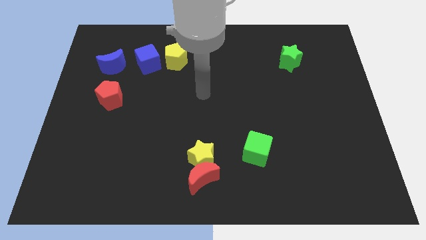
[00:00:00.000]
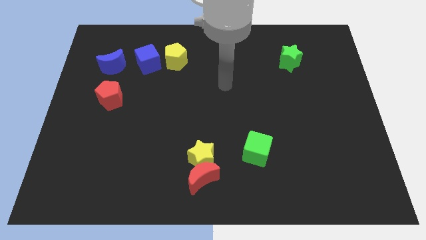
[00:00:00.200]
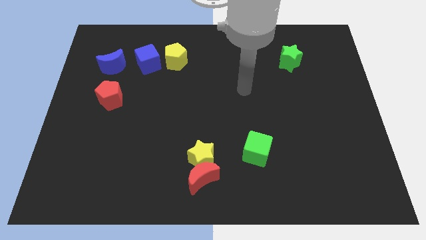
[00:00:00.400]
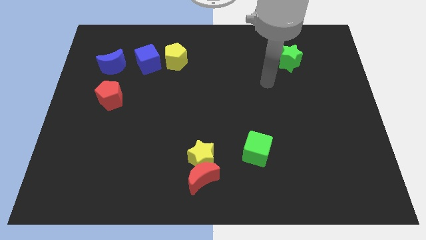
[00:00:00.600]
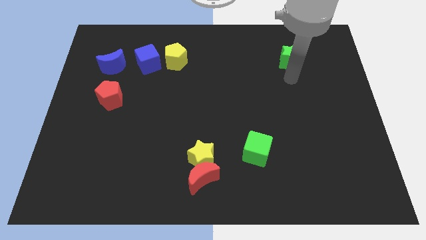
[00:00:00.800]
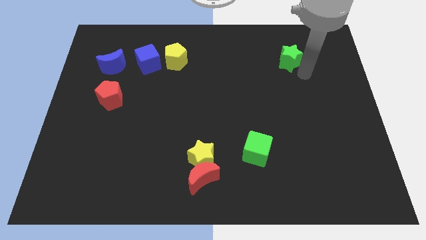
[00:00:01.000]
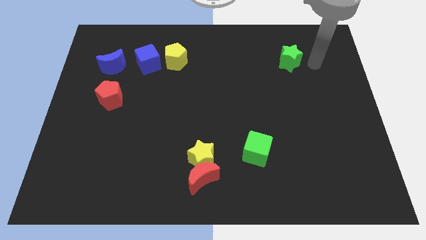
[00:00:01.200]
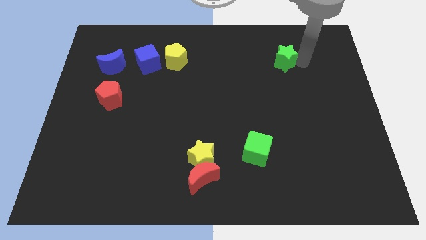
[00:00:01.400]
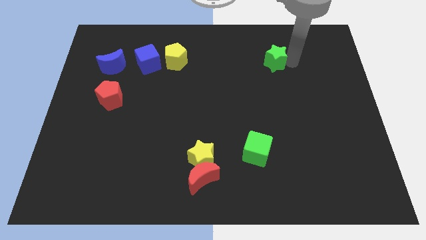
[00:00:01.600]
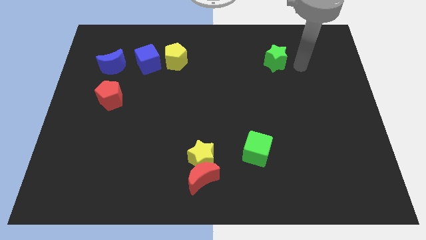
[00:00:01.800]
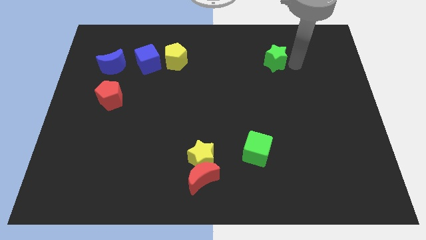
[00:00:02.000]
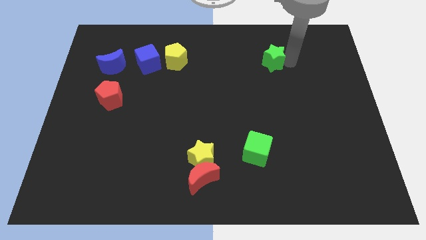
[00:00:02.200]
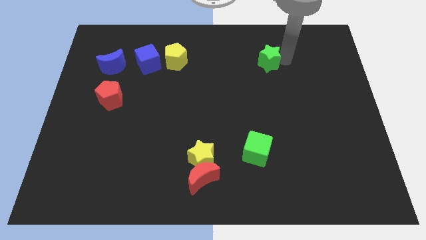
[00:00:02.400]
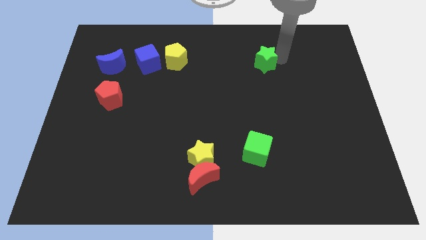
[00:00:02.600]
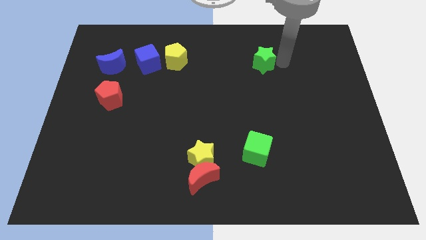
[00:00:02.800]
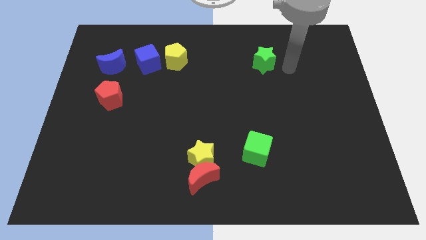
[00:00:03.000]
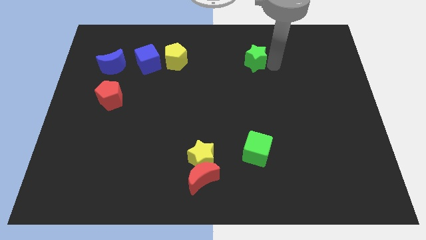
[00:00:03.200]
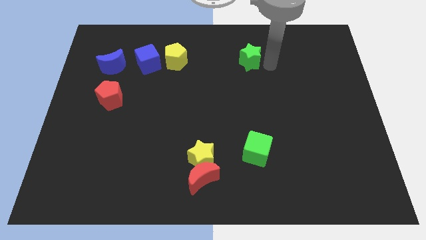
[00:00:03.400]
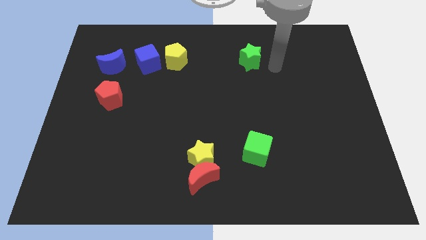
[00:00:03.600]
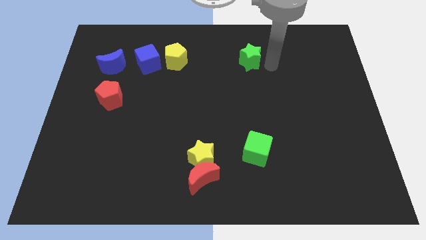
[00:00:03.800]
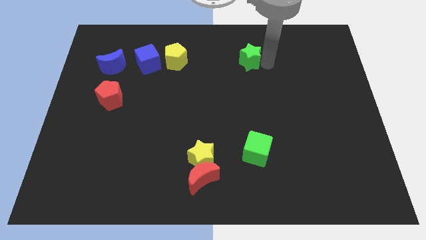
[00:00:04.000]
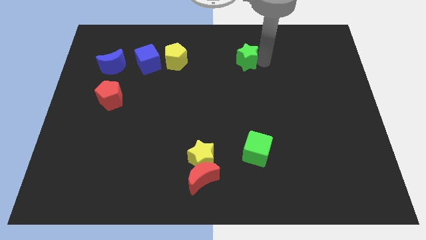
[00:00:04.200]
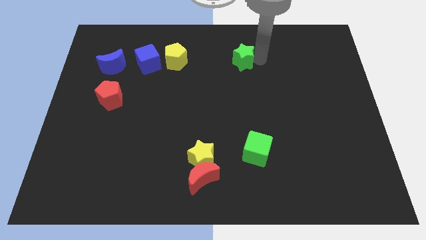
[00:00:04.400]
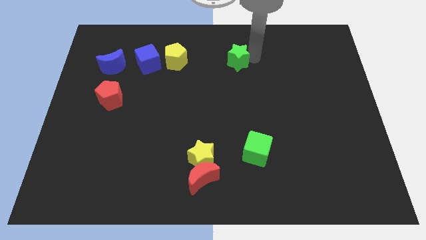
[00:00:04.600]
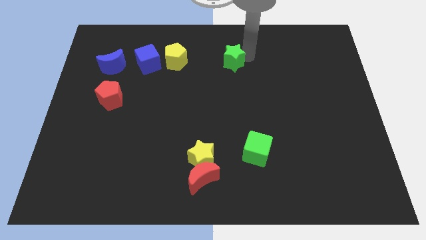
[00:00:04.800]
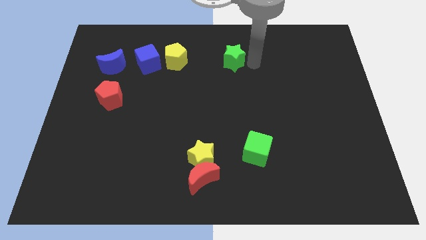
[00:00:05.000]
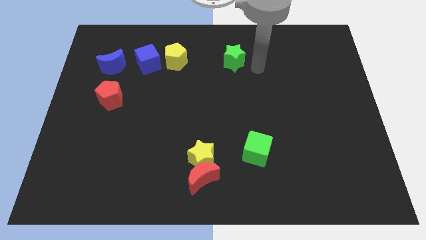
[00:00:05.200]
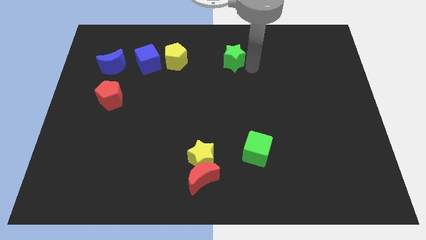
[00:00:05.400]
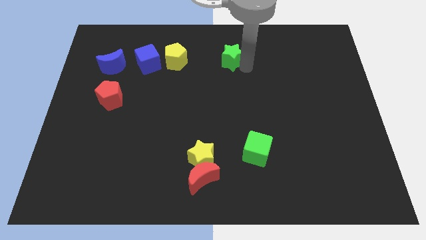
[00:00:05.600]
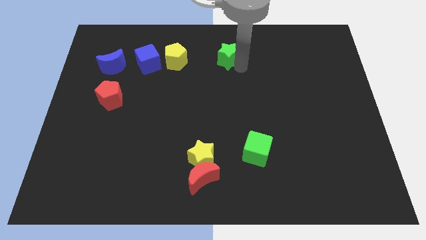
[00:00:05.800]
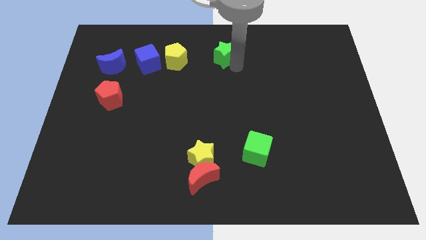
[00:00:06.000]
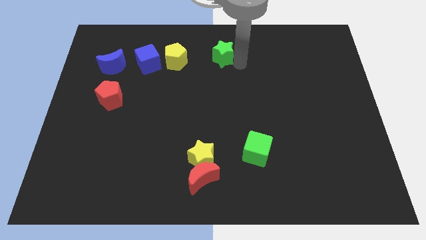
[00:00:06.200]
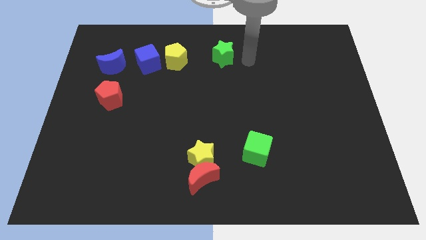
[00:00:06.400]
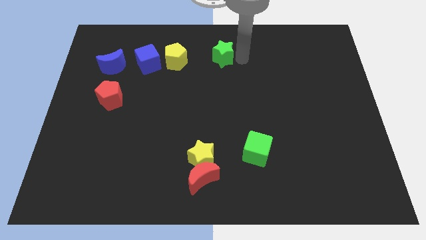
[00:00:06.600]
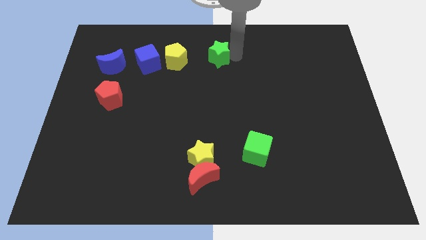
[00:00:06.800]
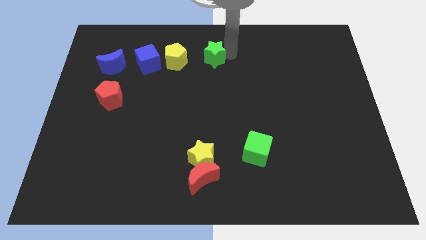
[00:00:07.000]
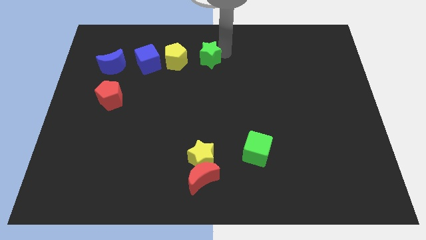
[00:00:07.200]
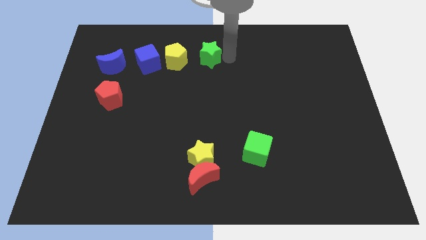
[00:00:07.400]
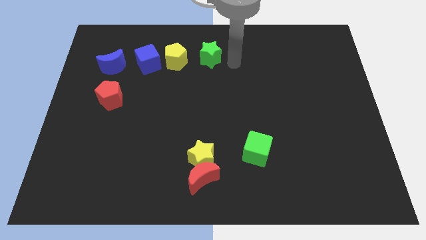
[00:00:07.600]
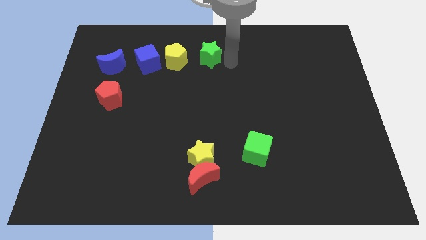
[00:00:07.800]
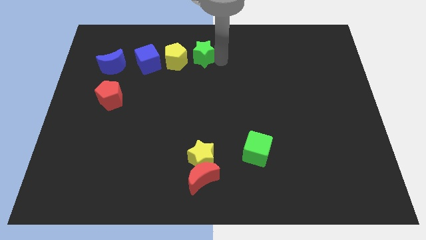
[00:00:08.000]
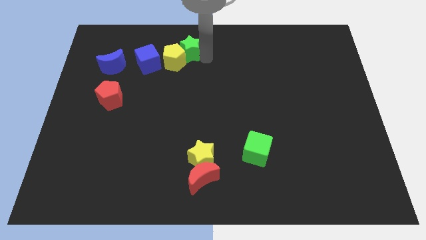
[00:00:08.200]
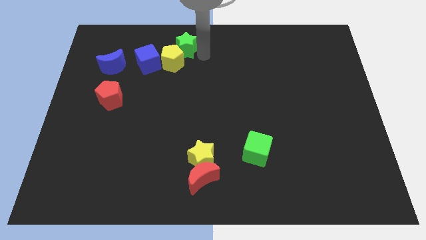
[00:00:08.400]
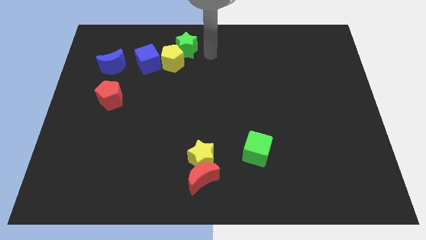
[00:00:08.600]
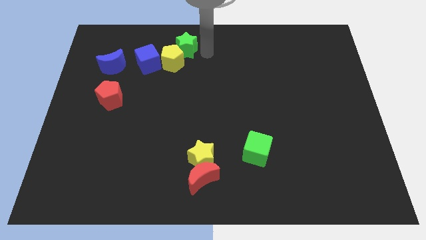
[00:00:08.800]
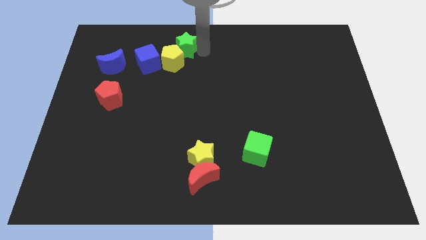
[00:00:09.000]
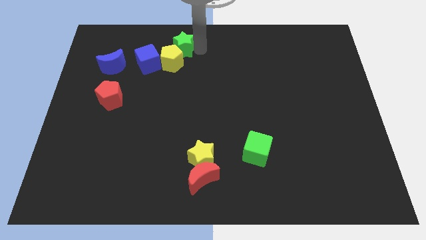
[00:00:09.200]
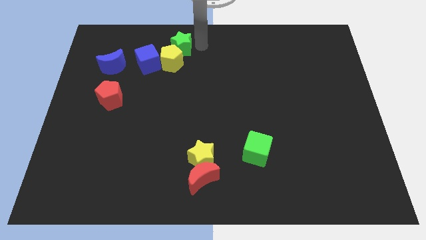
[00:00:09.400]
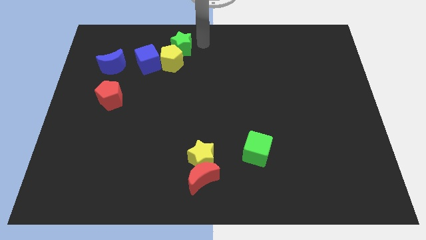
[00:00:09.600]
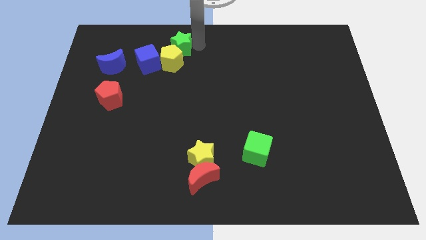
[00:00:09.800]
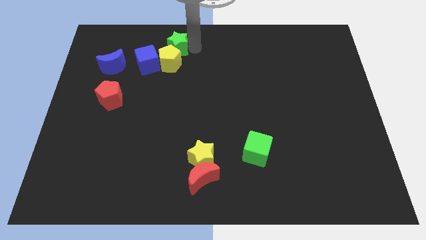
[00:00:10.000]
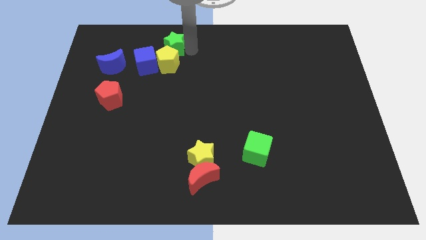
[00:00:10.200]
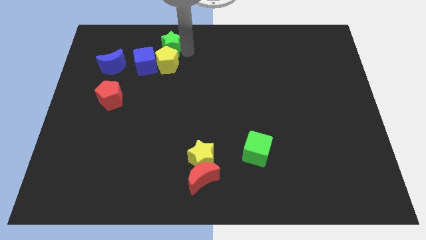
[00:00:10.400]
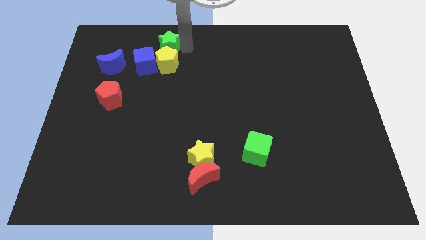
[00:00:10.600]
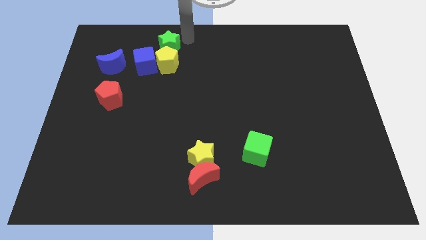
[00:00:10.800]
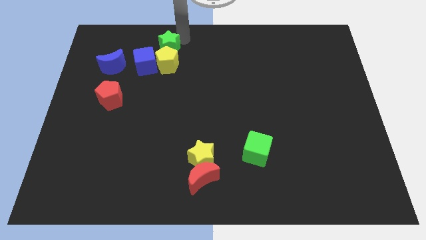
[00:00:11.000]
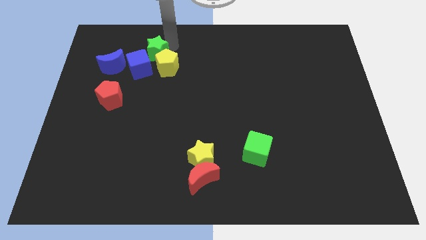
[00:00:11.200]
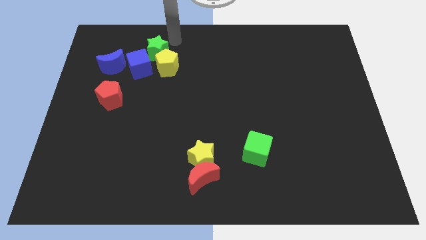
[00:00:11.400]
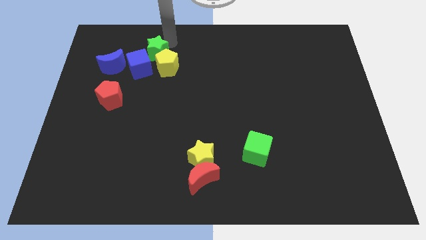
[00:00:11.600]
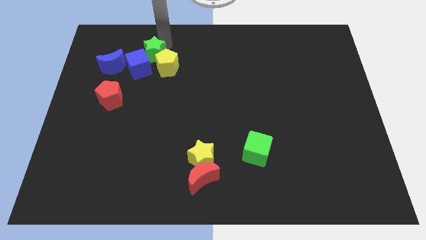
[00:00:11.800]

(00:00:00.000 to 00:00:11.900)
slide the green star towards the blue cube

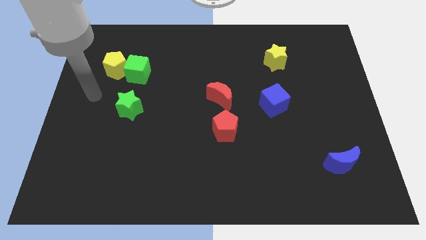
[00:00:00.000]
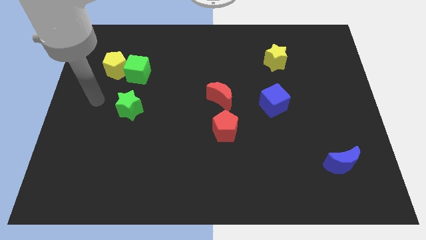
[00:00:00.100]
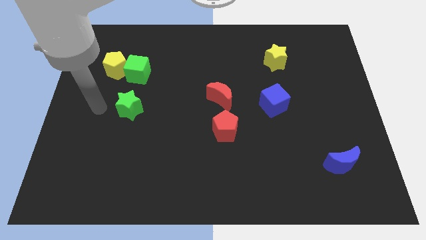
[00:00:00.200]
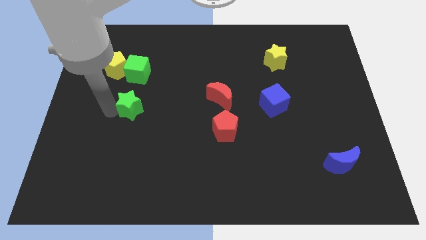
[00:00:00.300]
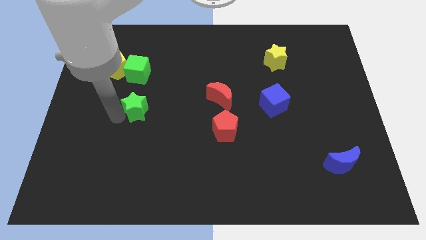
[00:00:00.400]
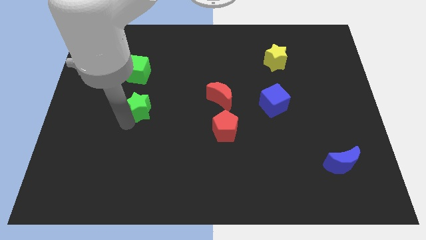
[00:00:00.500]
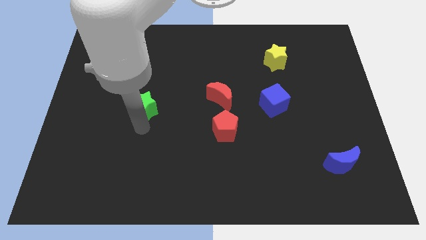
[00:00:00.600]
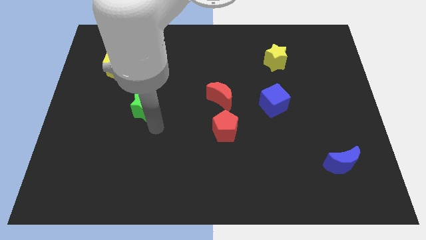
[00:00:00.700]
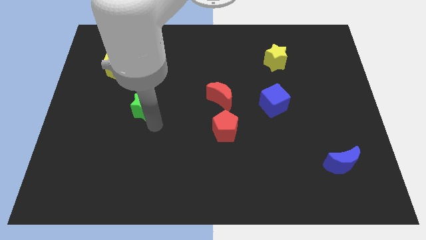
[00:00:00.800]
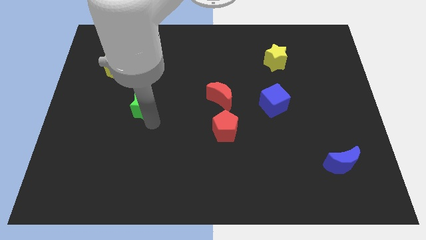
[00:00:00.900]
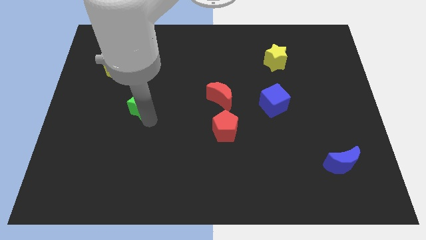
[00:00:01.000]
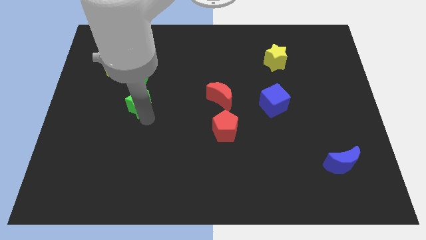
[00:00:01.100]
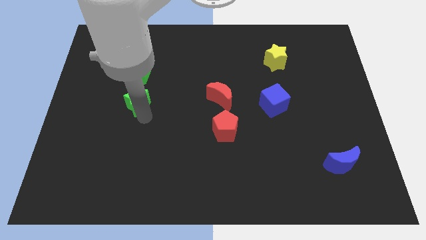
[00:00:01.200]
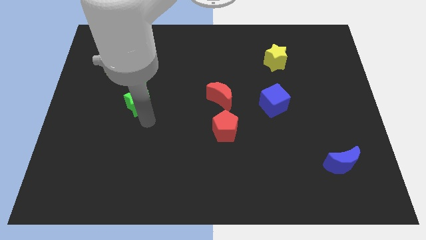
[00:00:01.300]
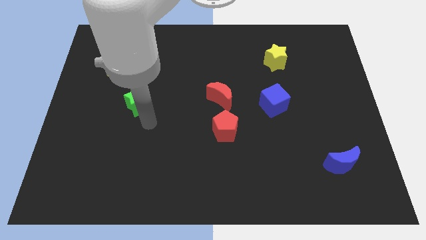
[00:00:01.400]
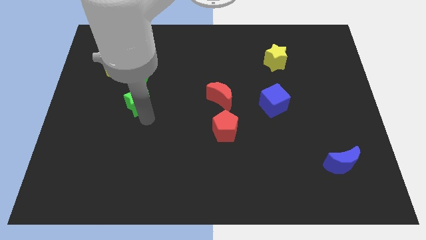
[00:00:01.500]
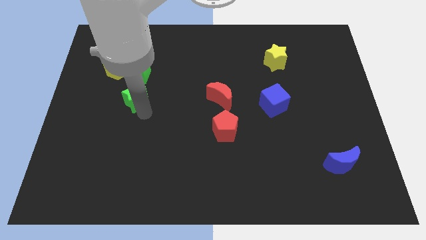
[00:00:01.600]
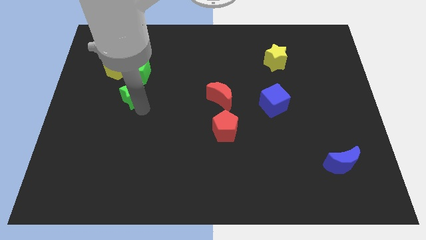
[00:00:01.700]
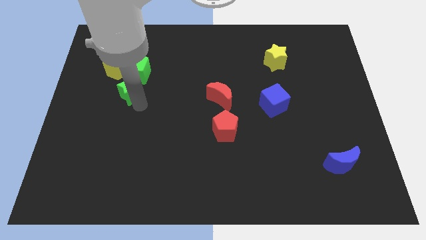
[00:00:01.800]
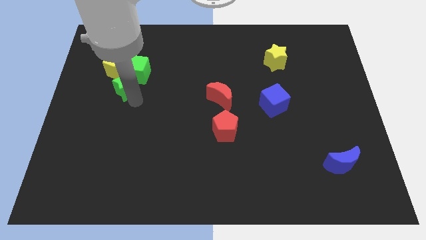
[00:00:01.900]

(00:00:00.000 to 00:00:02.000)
move the green star next to the green cube
